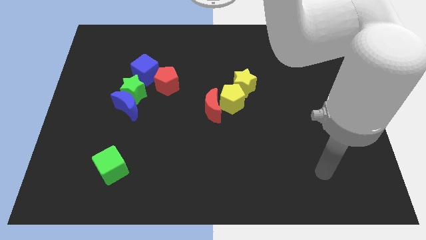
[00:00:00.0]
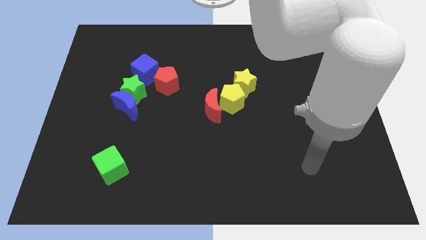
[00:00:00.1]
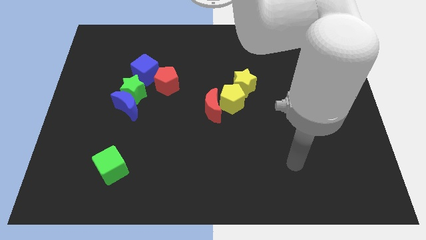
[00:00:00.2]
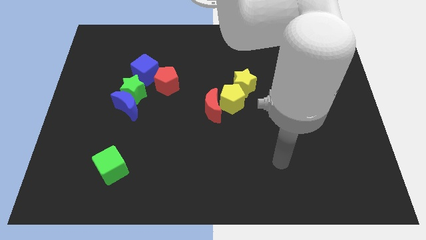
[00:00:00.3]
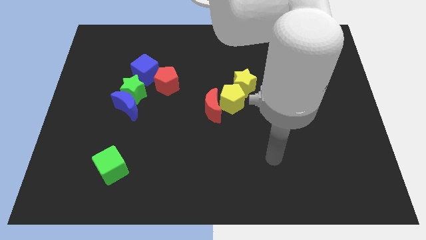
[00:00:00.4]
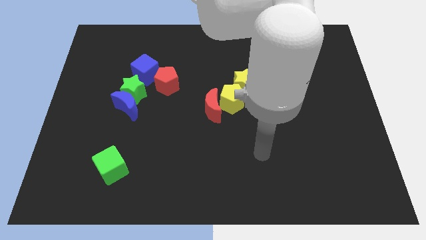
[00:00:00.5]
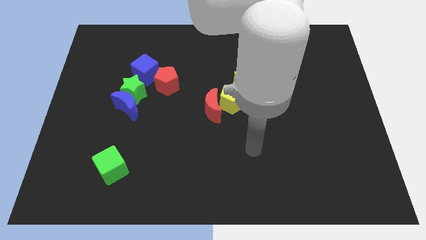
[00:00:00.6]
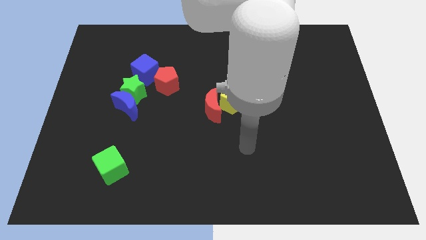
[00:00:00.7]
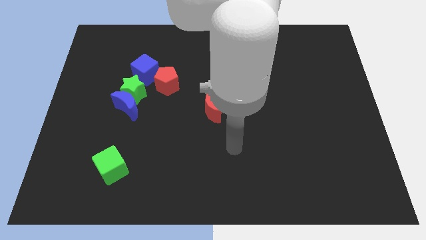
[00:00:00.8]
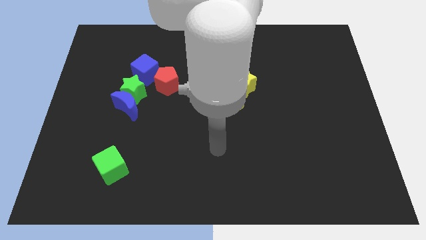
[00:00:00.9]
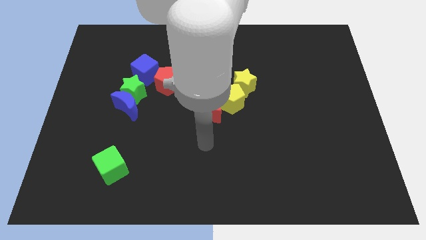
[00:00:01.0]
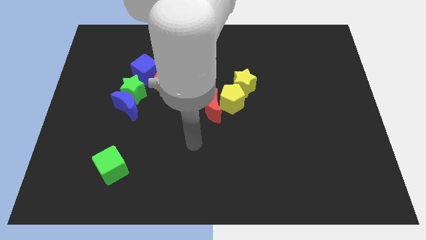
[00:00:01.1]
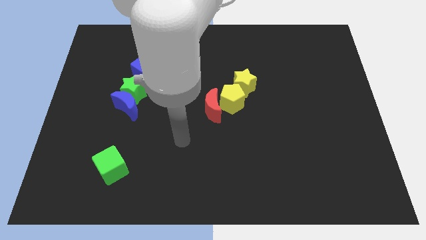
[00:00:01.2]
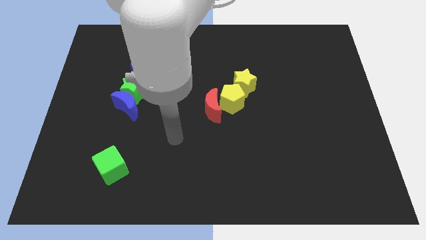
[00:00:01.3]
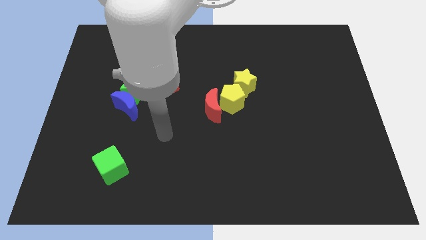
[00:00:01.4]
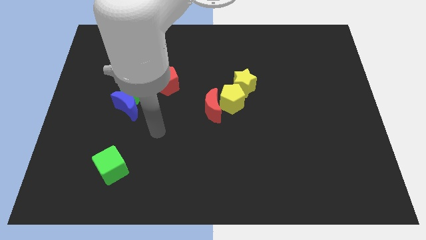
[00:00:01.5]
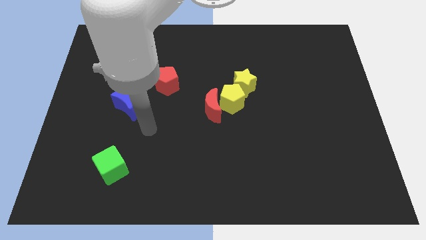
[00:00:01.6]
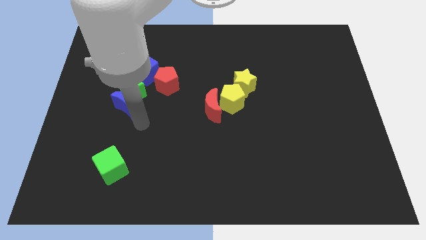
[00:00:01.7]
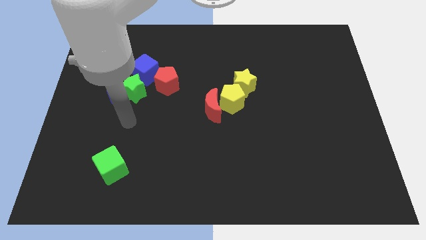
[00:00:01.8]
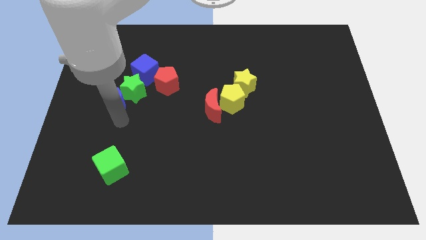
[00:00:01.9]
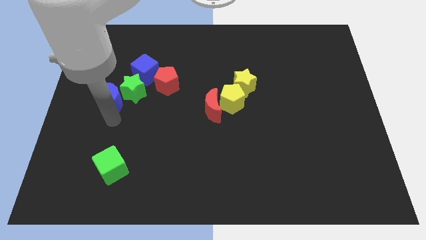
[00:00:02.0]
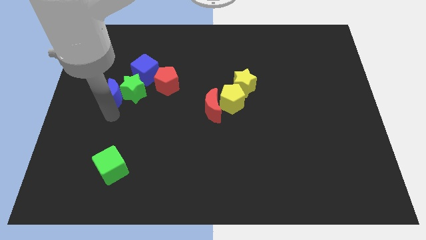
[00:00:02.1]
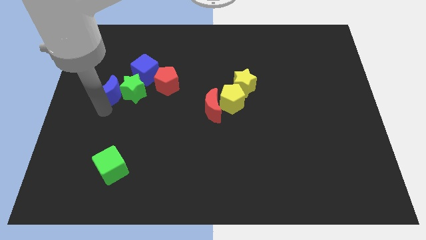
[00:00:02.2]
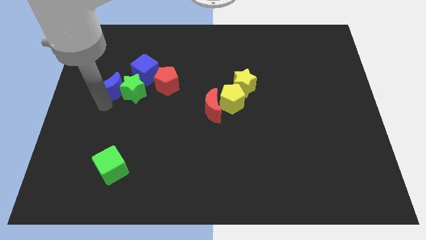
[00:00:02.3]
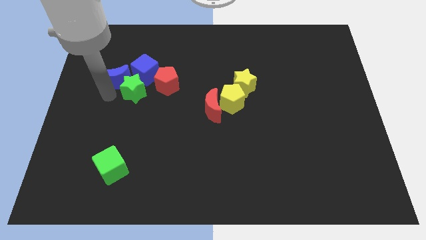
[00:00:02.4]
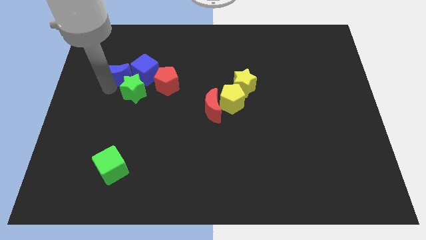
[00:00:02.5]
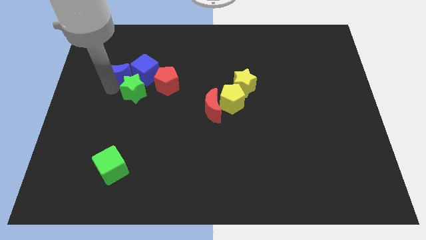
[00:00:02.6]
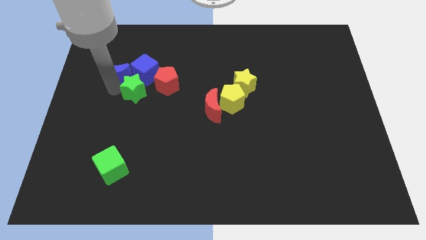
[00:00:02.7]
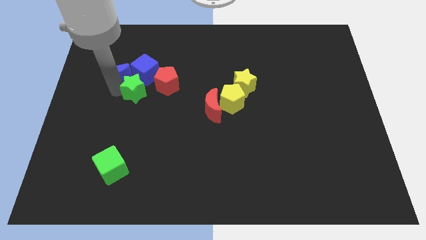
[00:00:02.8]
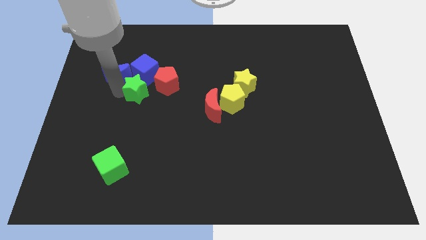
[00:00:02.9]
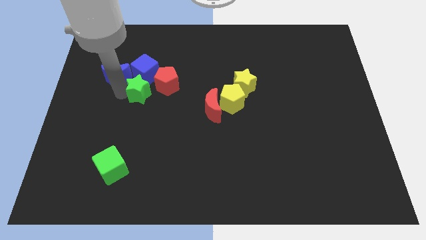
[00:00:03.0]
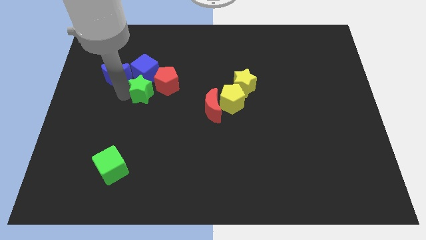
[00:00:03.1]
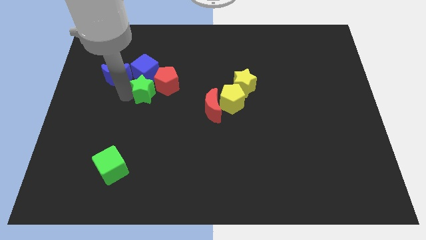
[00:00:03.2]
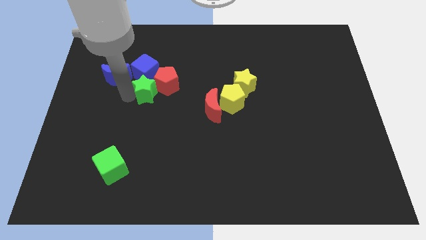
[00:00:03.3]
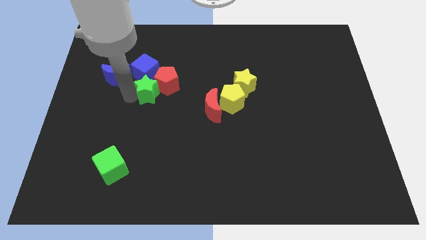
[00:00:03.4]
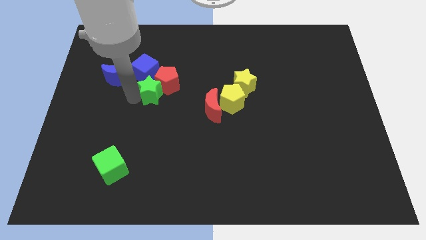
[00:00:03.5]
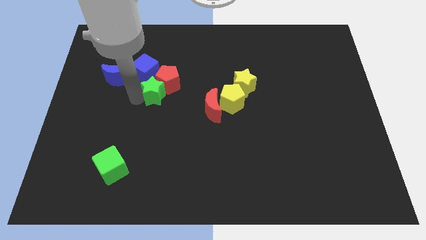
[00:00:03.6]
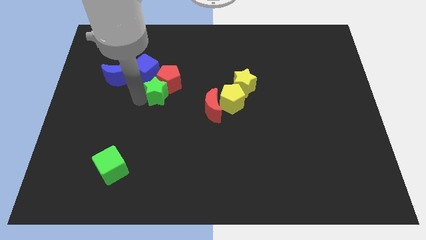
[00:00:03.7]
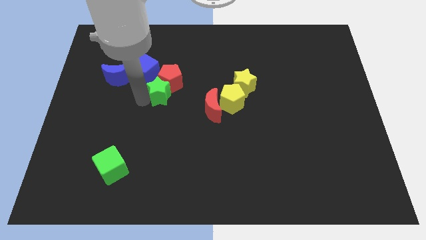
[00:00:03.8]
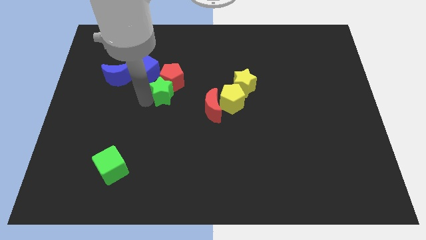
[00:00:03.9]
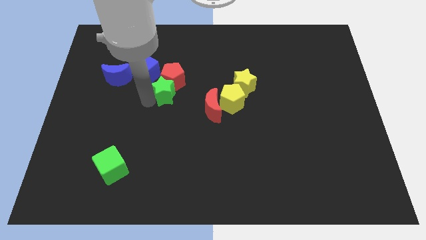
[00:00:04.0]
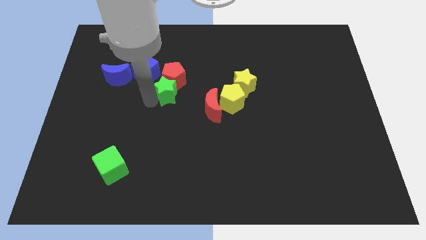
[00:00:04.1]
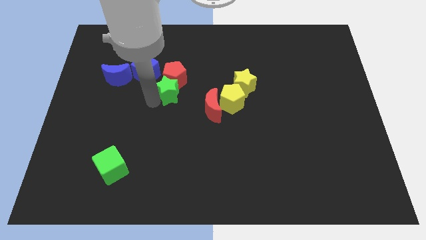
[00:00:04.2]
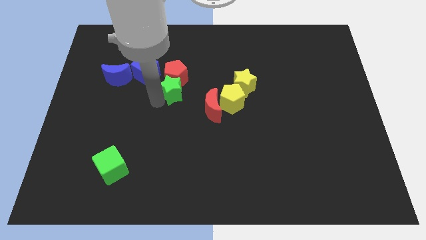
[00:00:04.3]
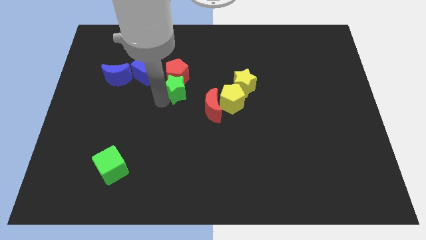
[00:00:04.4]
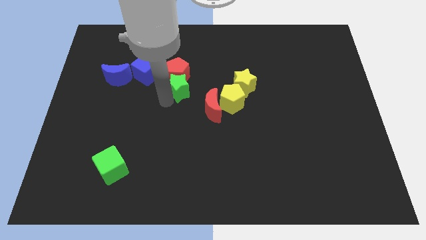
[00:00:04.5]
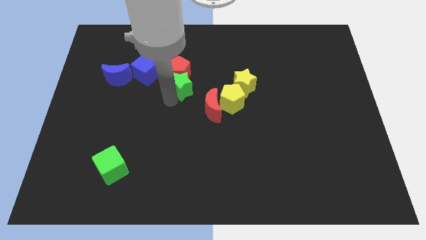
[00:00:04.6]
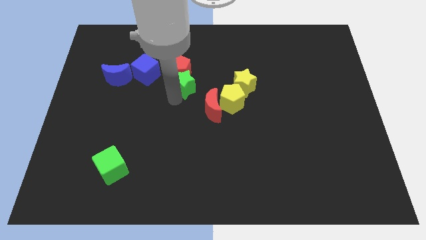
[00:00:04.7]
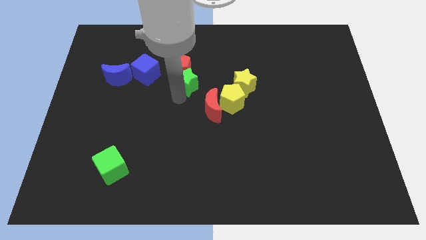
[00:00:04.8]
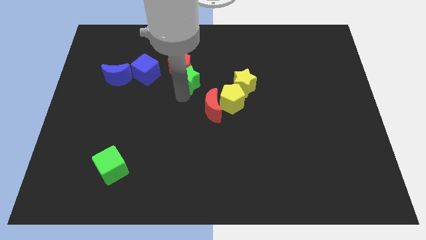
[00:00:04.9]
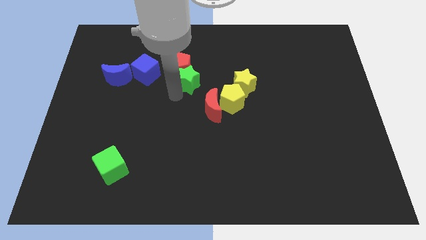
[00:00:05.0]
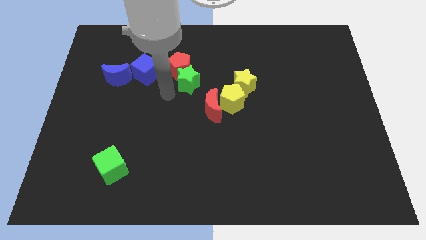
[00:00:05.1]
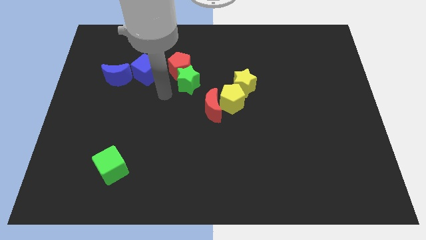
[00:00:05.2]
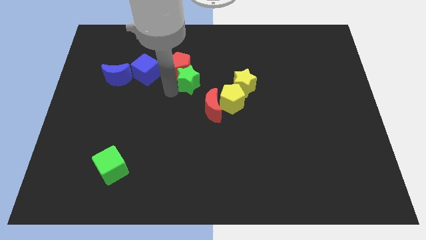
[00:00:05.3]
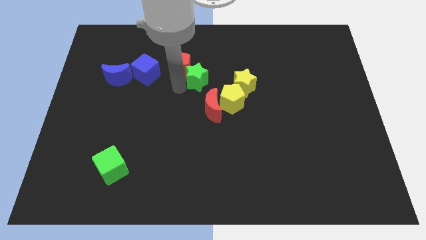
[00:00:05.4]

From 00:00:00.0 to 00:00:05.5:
push the green star right of the red pentagon

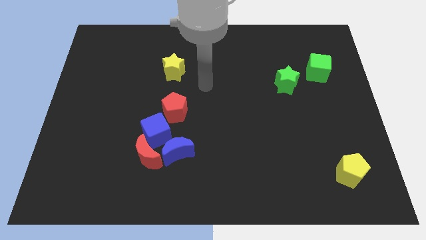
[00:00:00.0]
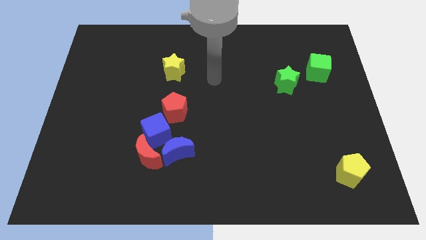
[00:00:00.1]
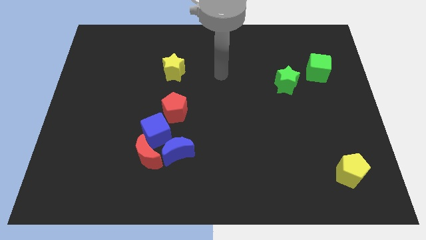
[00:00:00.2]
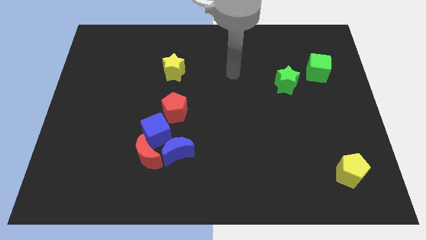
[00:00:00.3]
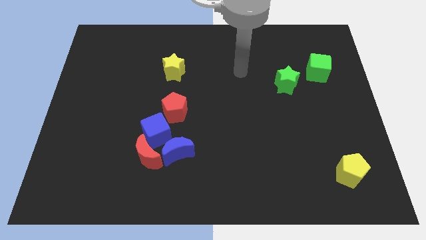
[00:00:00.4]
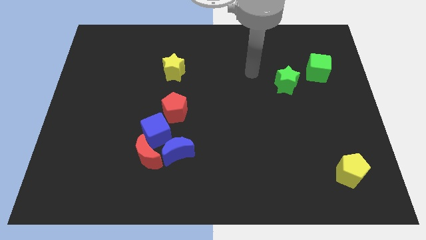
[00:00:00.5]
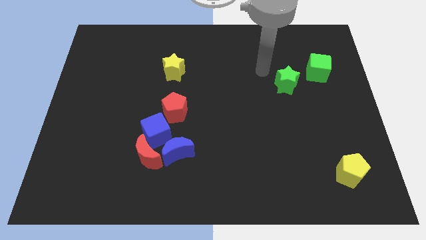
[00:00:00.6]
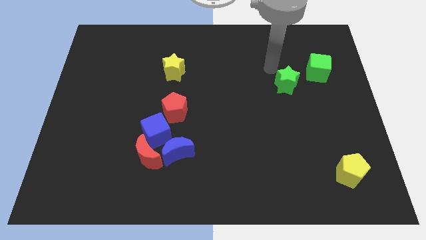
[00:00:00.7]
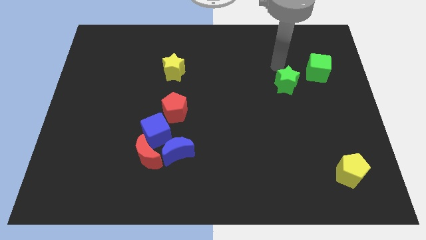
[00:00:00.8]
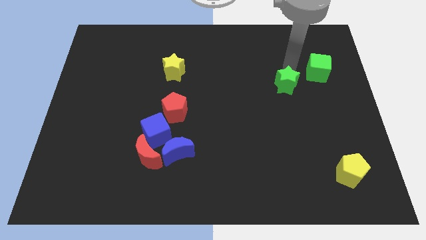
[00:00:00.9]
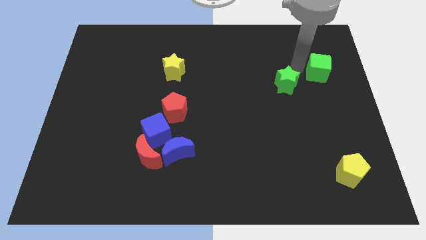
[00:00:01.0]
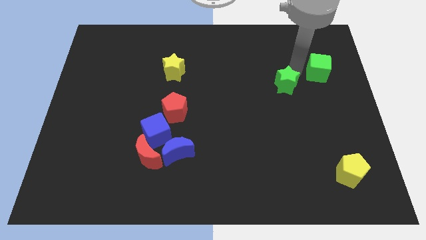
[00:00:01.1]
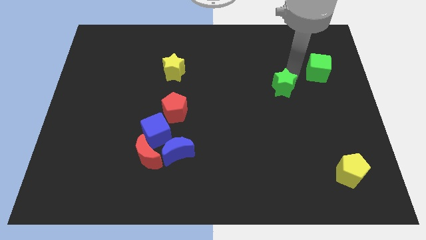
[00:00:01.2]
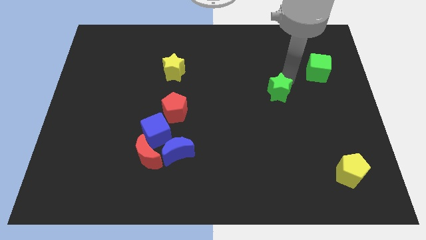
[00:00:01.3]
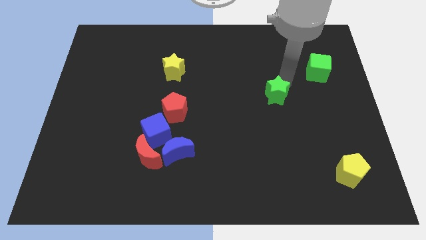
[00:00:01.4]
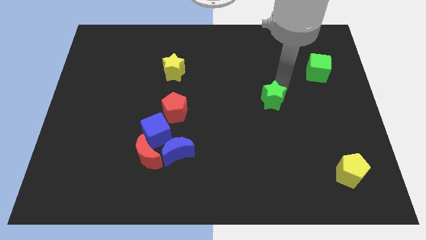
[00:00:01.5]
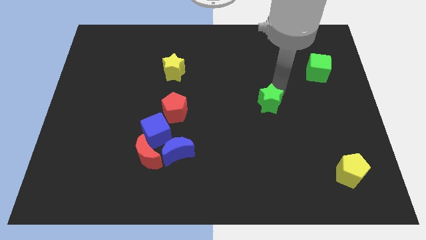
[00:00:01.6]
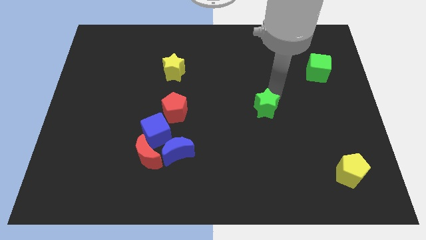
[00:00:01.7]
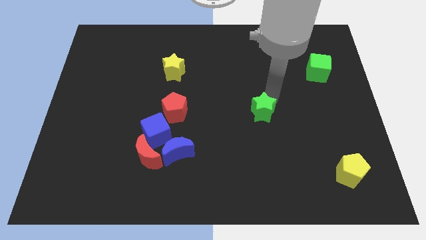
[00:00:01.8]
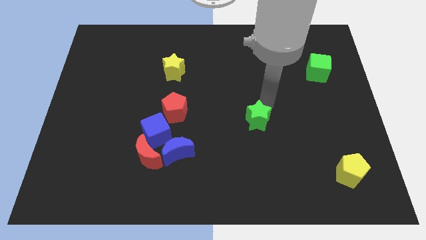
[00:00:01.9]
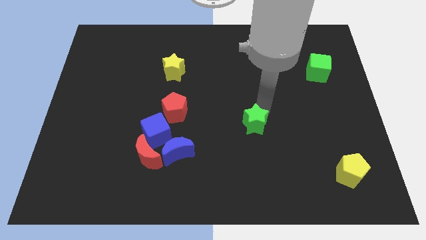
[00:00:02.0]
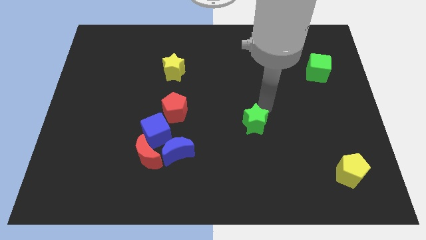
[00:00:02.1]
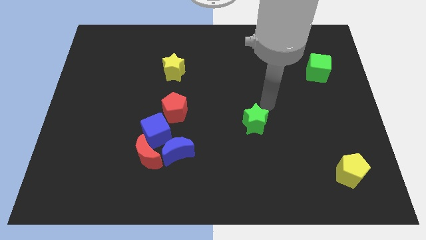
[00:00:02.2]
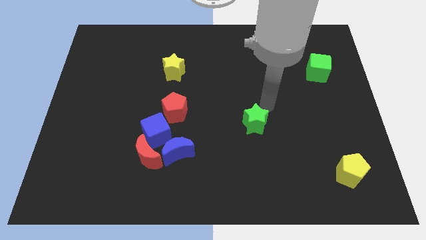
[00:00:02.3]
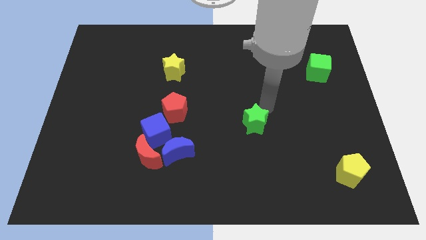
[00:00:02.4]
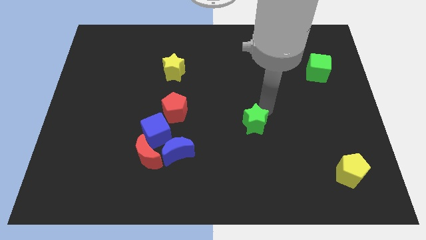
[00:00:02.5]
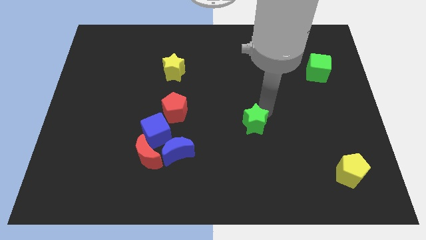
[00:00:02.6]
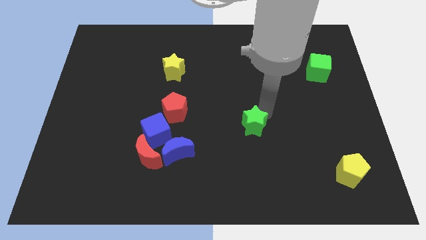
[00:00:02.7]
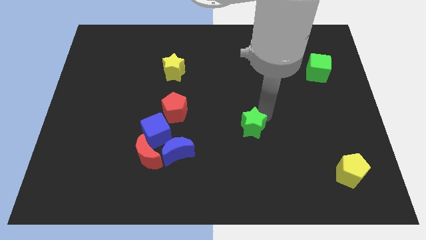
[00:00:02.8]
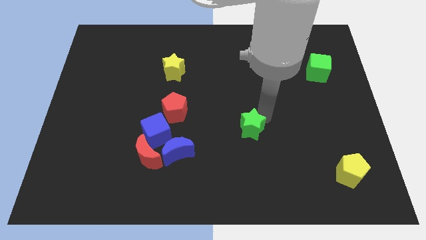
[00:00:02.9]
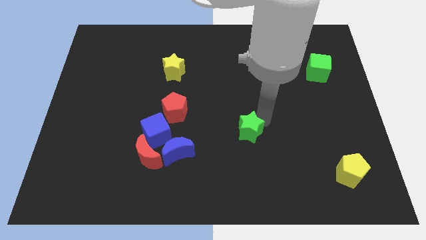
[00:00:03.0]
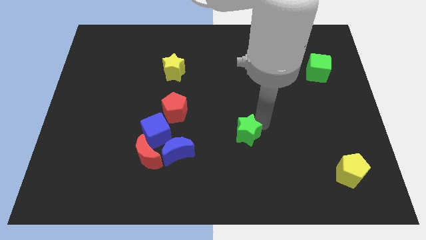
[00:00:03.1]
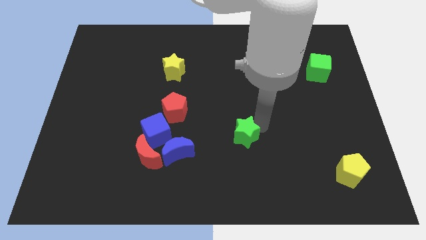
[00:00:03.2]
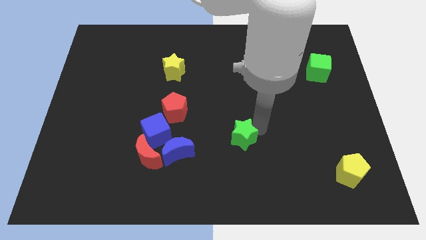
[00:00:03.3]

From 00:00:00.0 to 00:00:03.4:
push the green star just right of the blue moon
